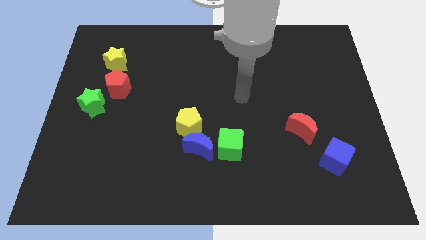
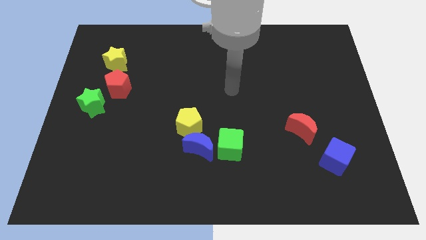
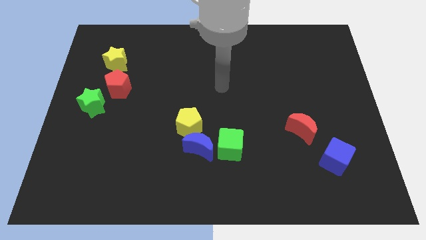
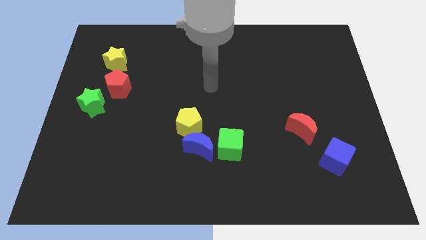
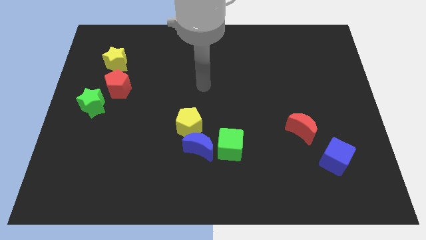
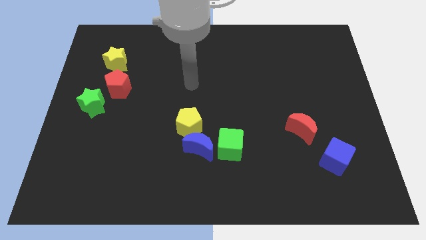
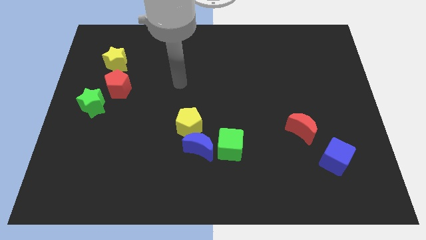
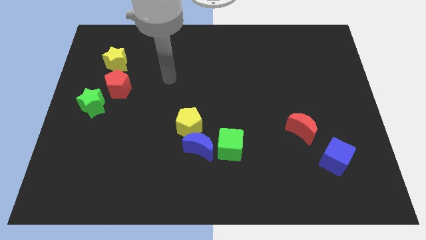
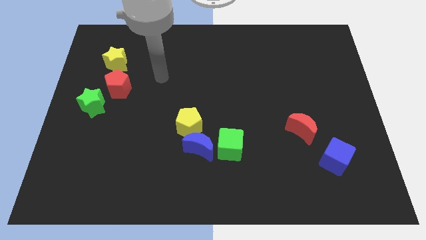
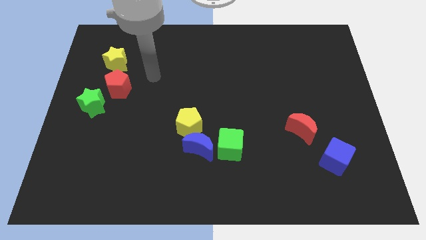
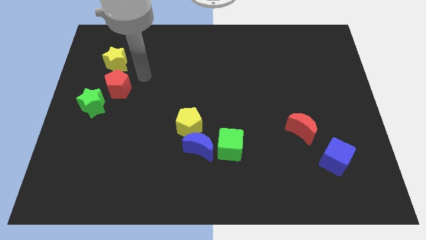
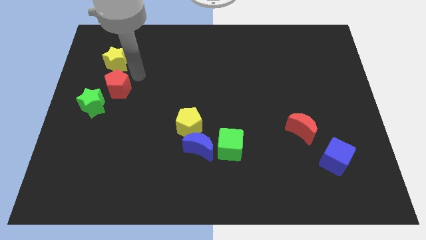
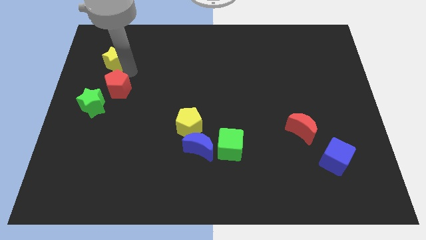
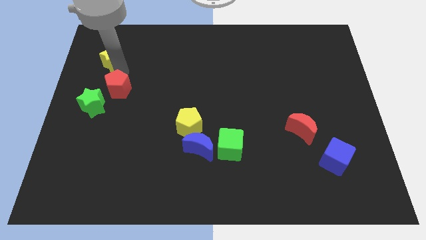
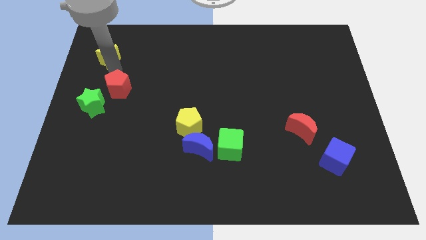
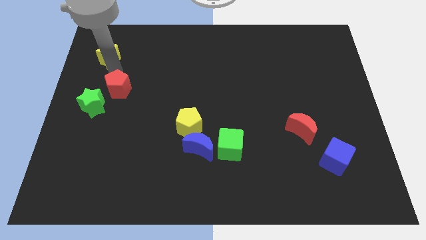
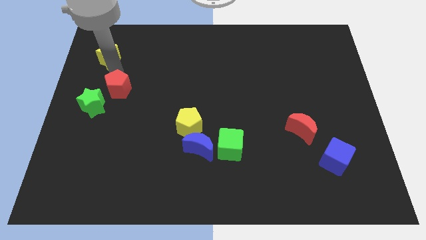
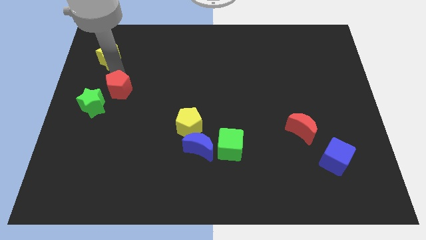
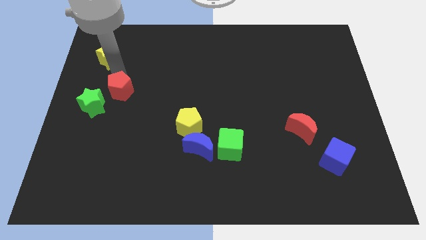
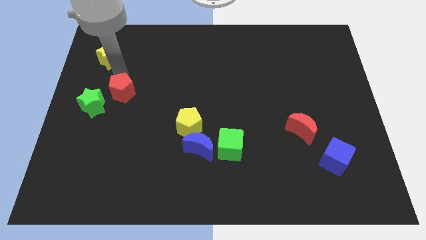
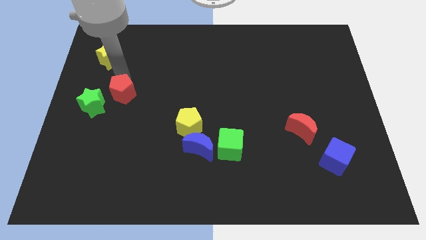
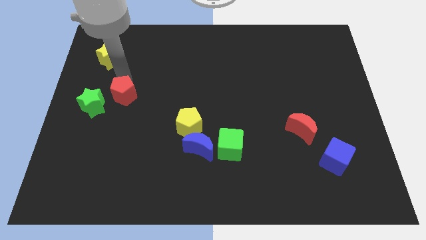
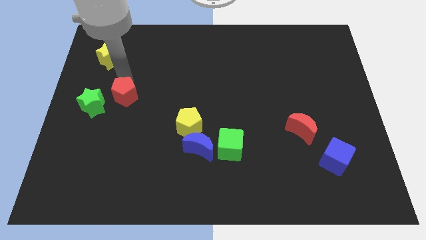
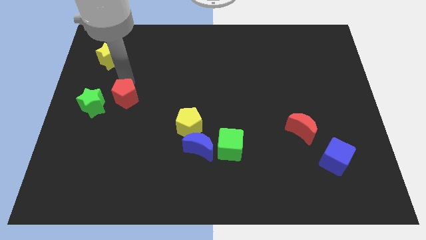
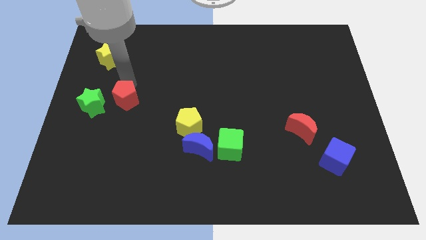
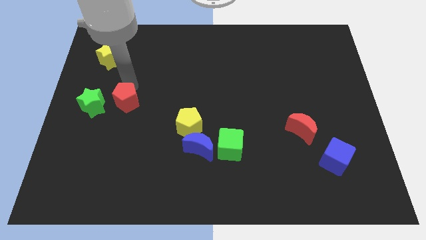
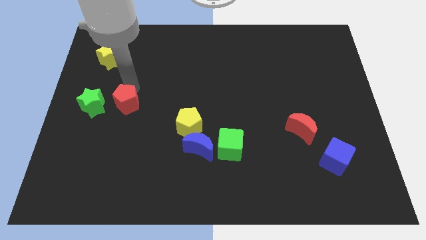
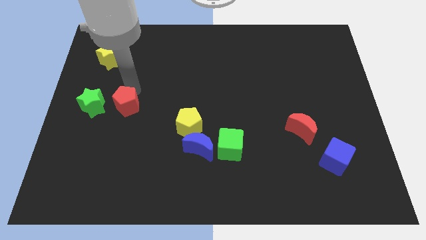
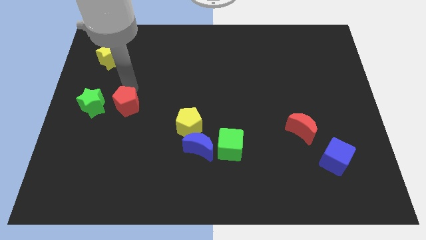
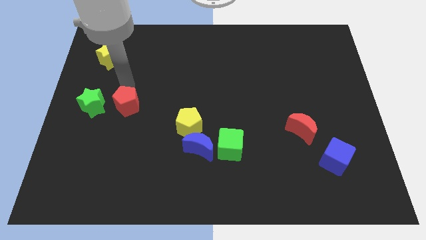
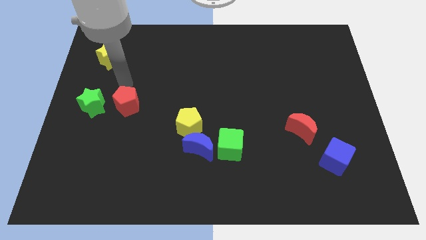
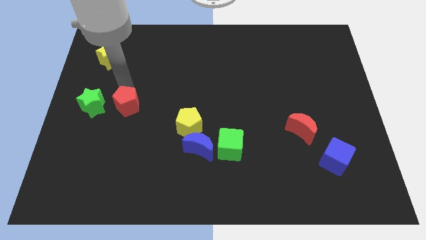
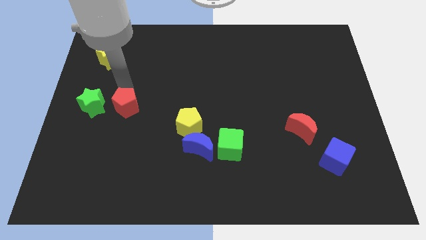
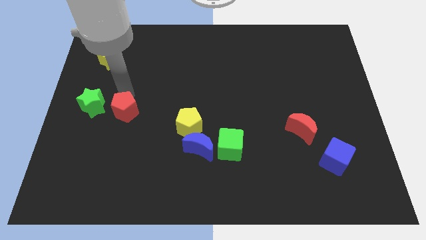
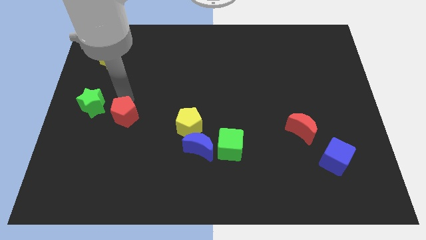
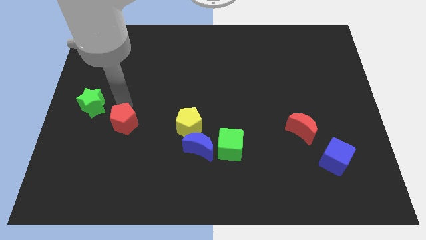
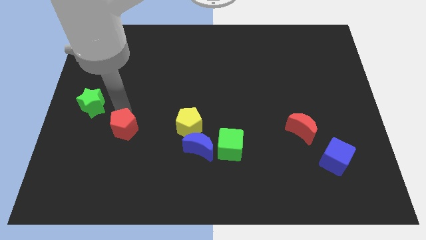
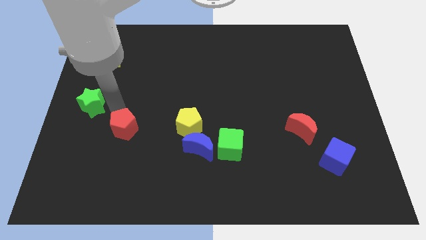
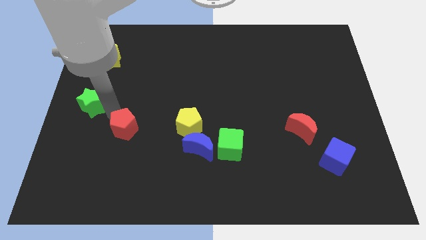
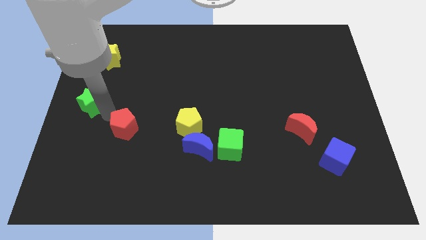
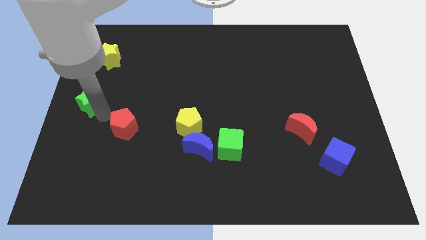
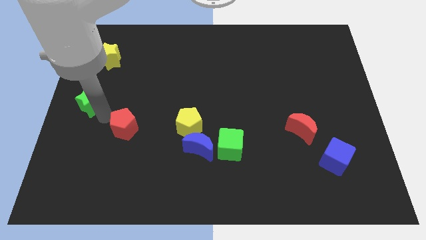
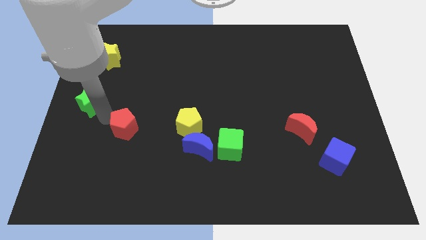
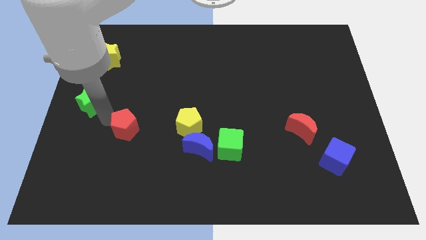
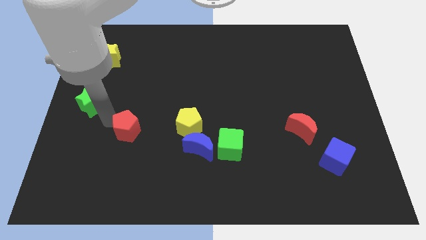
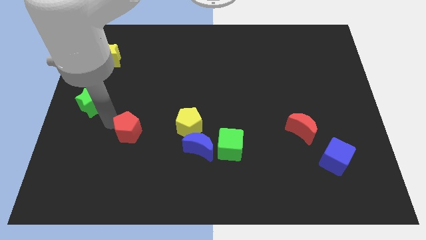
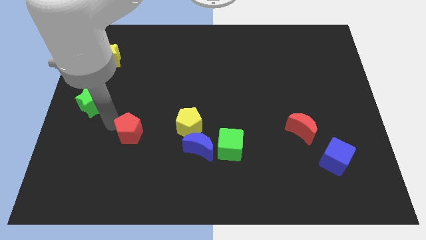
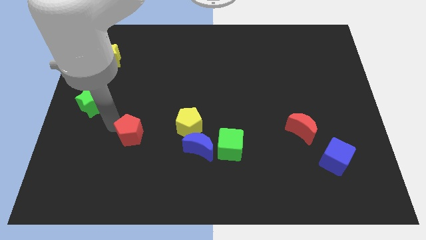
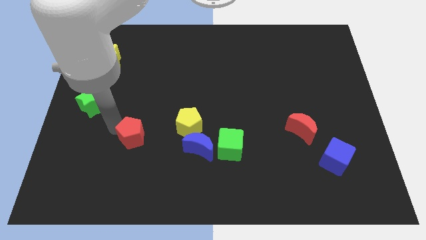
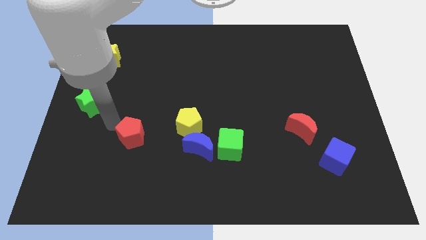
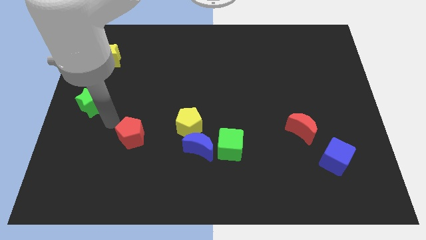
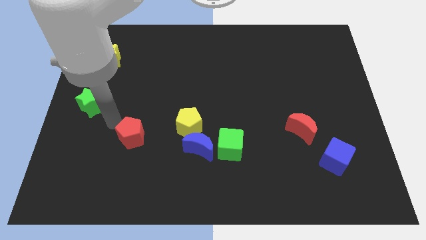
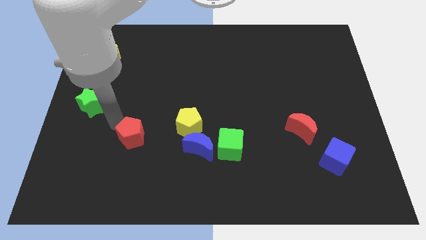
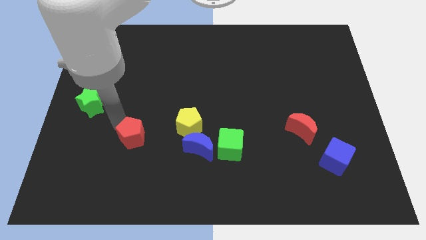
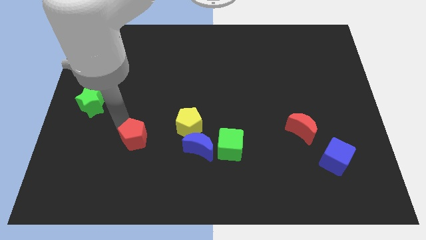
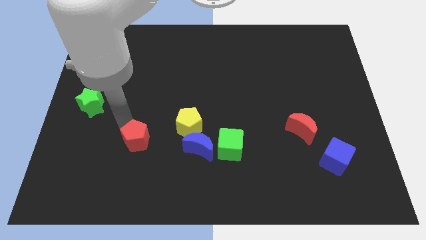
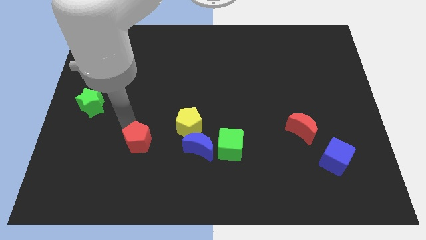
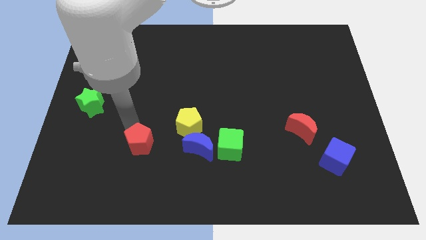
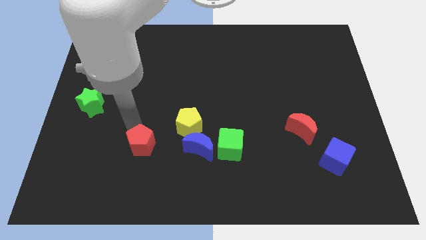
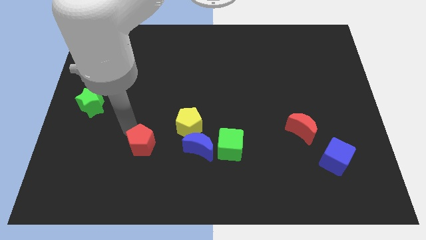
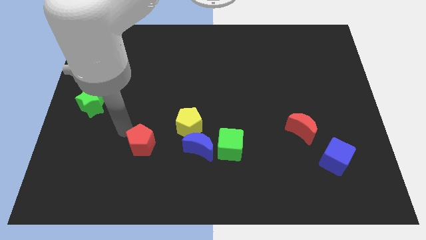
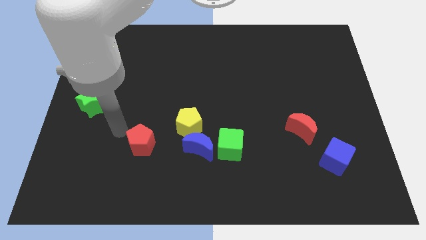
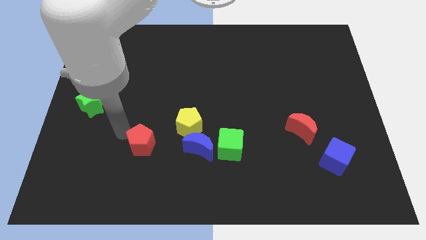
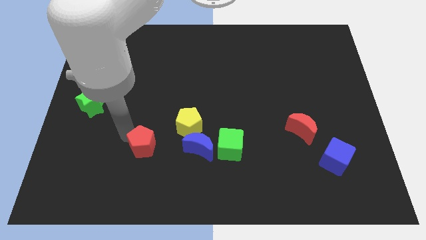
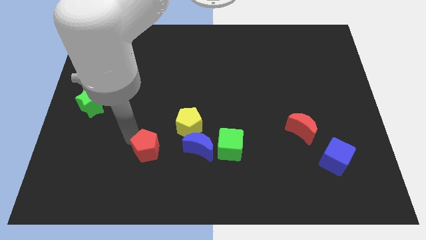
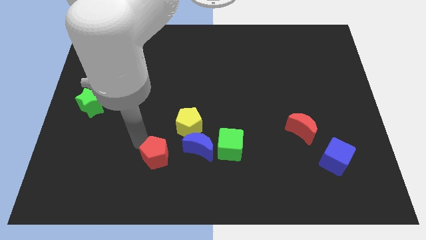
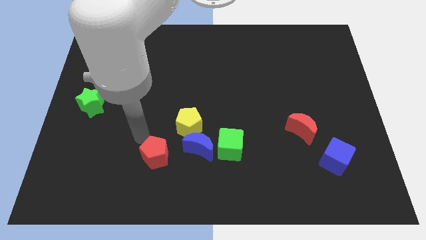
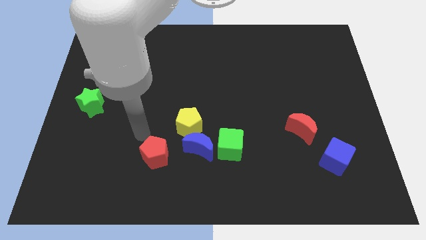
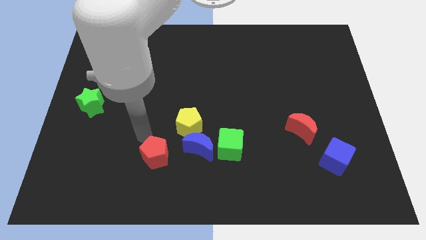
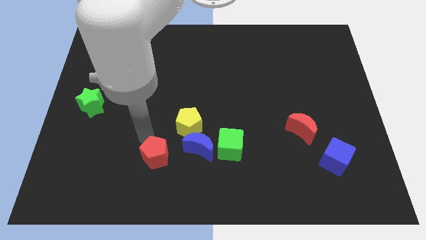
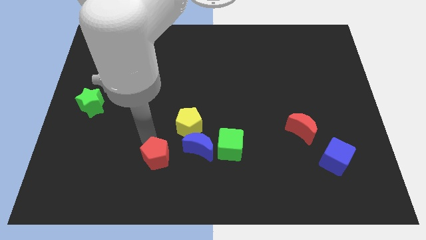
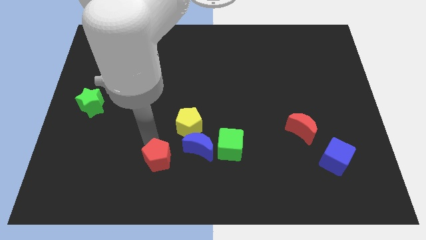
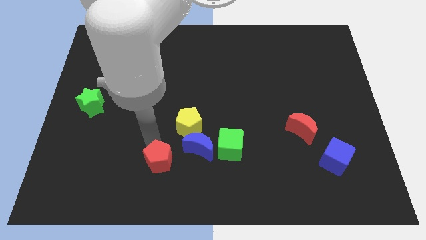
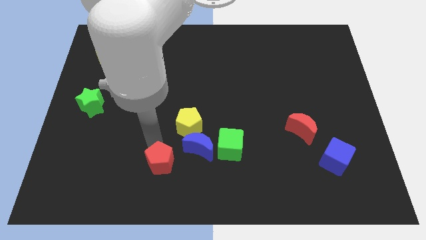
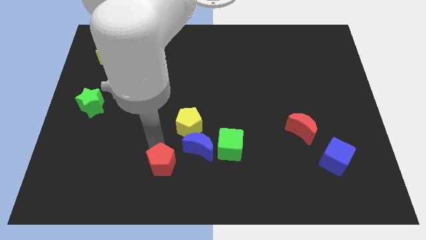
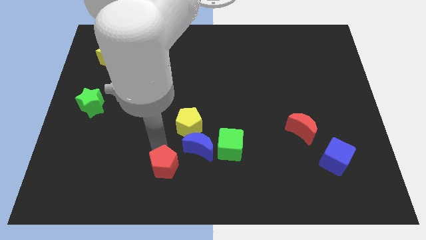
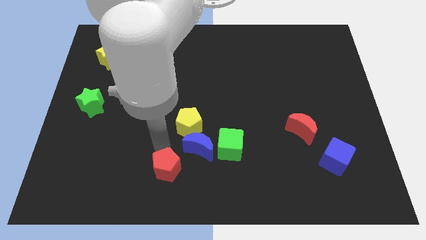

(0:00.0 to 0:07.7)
put the red pentagon to the bottom side
